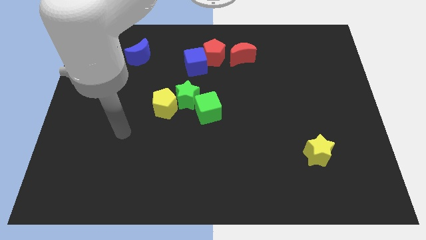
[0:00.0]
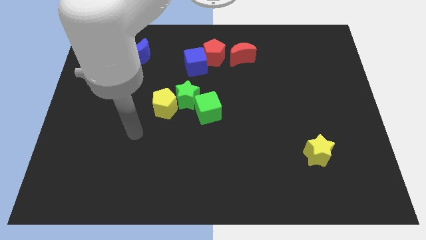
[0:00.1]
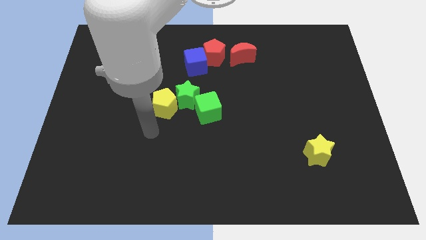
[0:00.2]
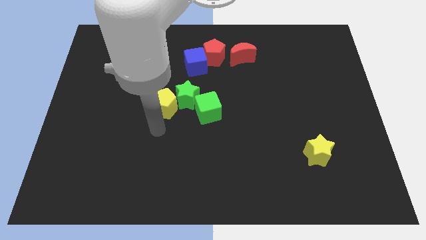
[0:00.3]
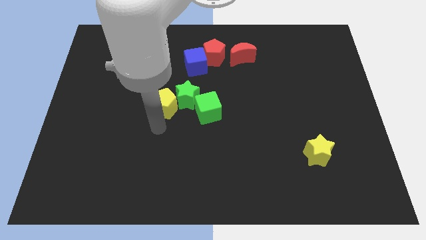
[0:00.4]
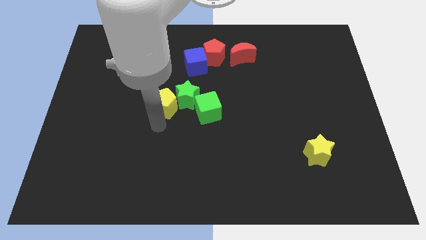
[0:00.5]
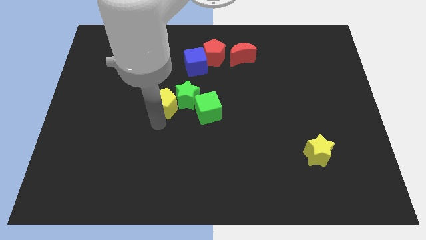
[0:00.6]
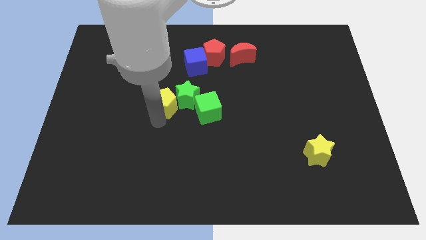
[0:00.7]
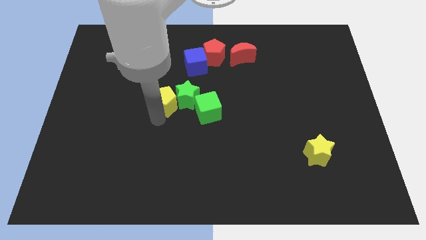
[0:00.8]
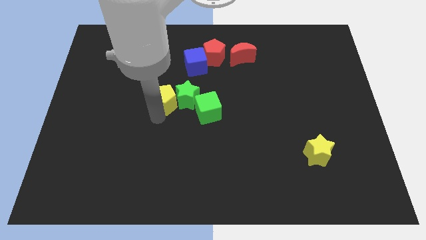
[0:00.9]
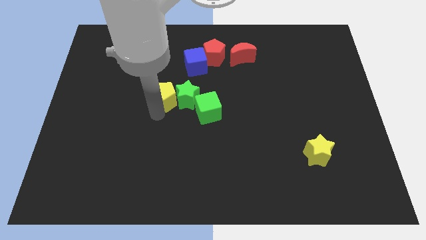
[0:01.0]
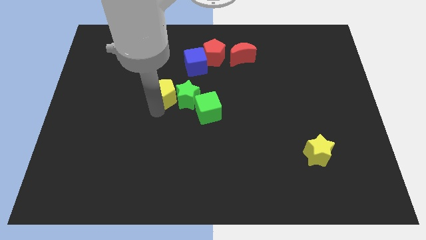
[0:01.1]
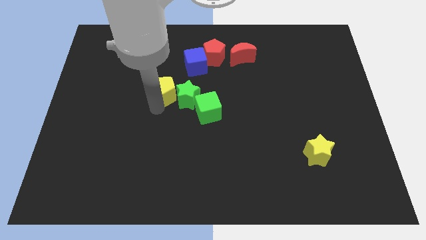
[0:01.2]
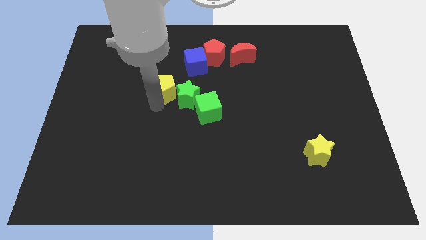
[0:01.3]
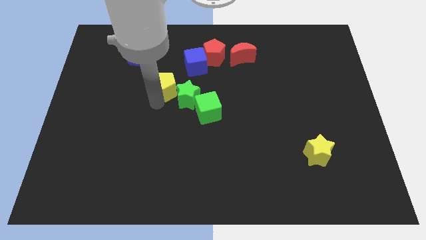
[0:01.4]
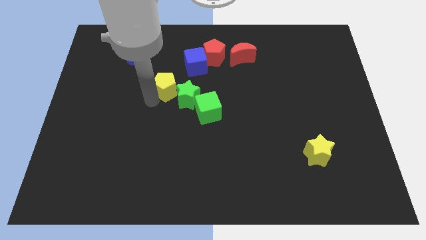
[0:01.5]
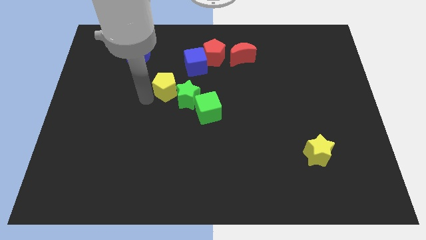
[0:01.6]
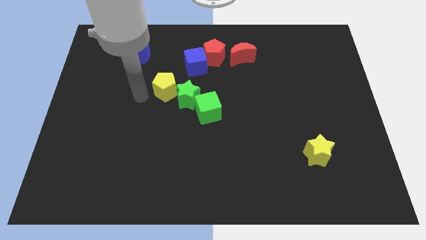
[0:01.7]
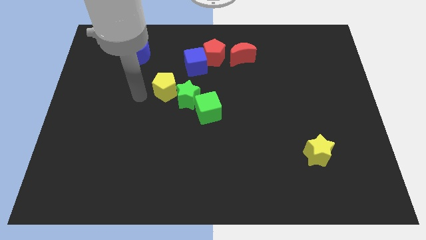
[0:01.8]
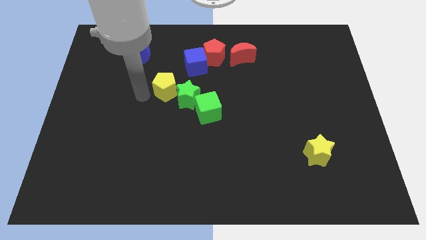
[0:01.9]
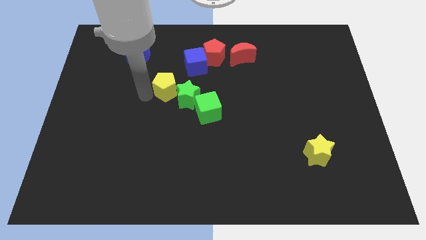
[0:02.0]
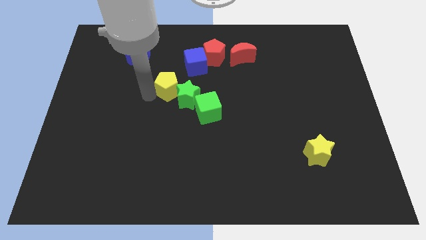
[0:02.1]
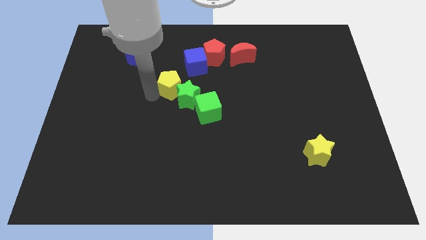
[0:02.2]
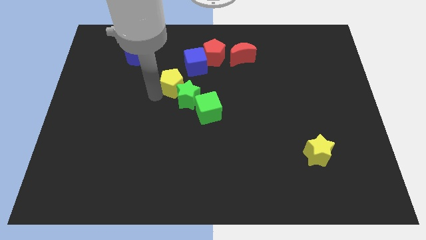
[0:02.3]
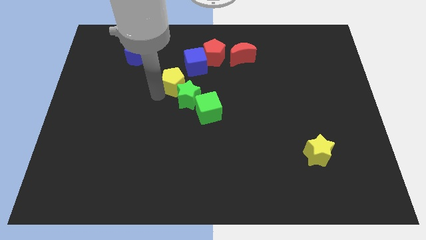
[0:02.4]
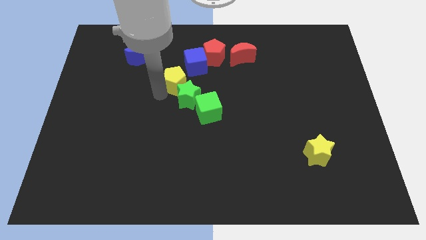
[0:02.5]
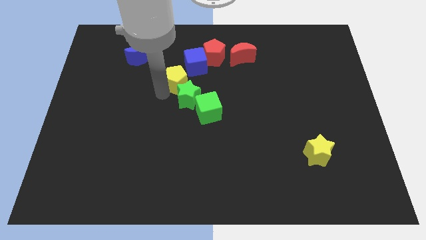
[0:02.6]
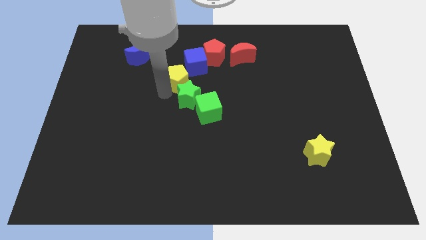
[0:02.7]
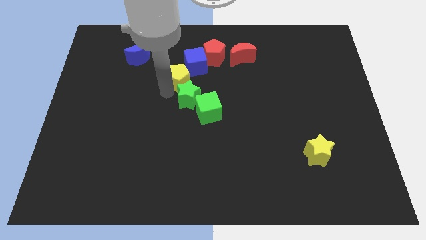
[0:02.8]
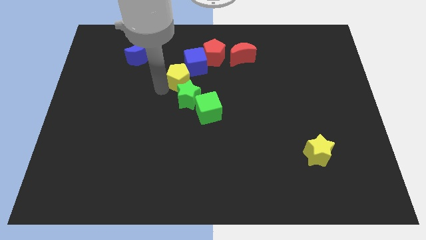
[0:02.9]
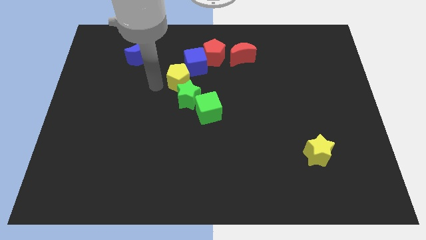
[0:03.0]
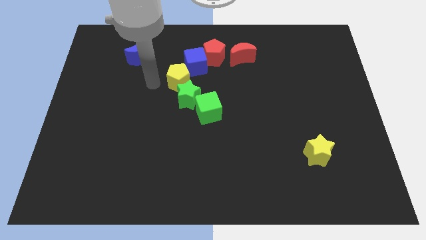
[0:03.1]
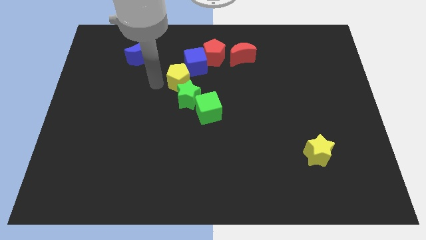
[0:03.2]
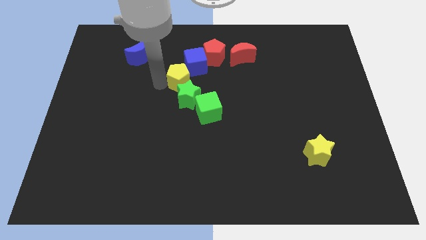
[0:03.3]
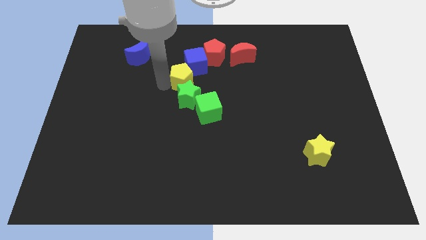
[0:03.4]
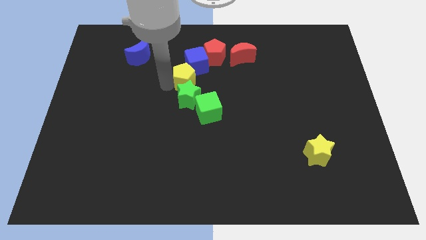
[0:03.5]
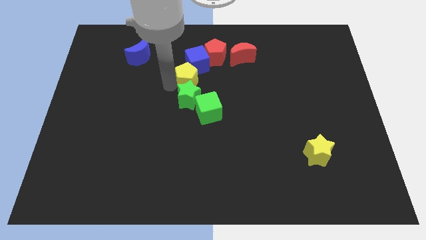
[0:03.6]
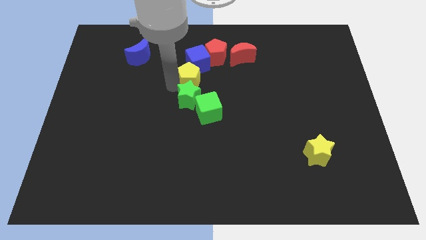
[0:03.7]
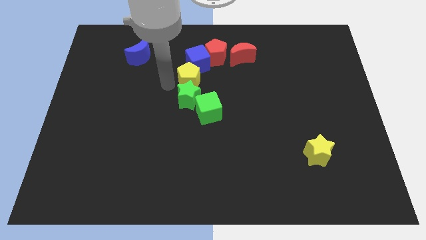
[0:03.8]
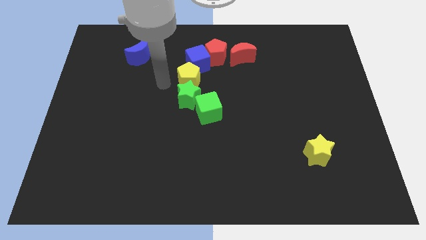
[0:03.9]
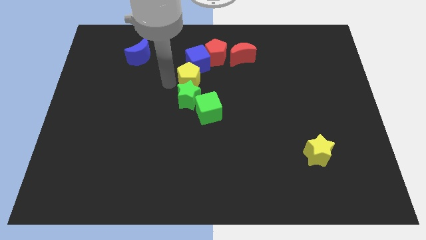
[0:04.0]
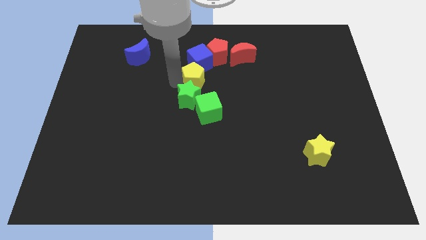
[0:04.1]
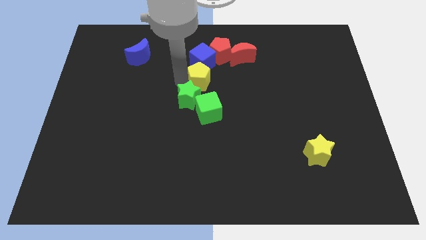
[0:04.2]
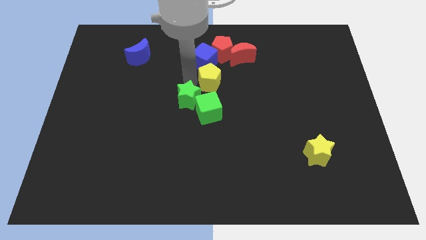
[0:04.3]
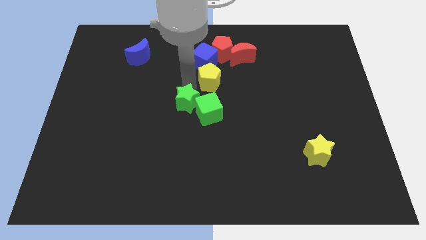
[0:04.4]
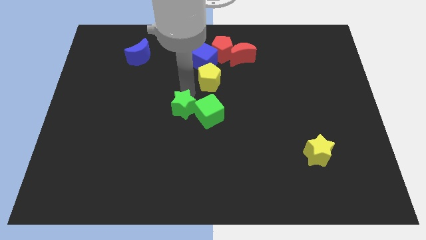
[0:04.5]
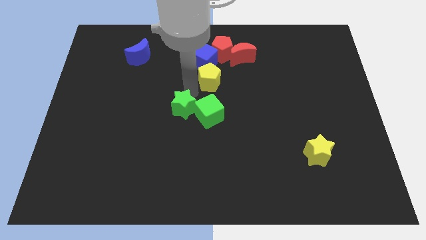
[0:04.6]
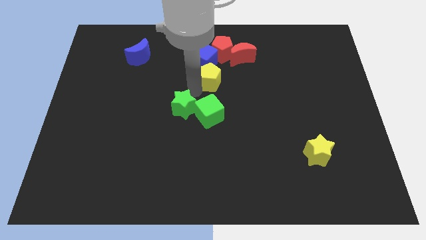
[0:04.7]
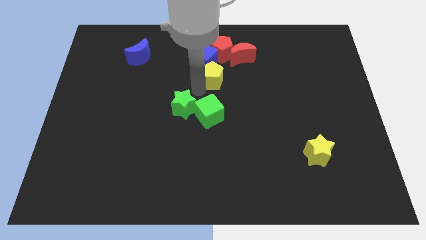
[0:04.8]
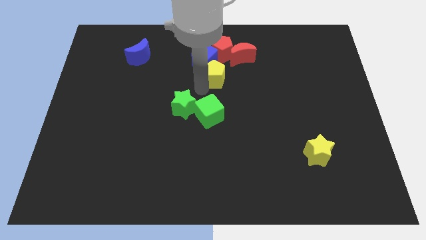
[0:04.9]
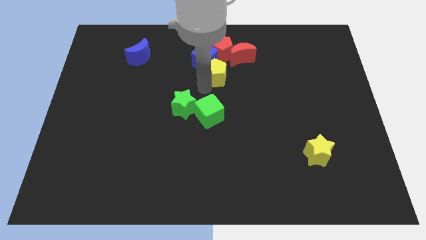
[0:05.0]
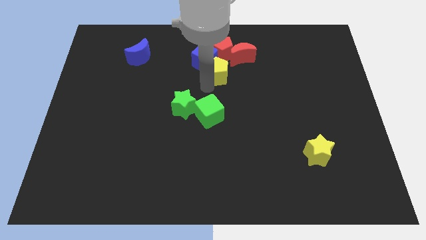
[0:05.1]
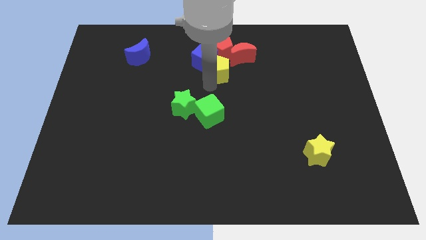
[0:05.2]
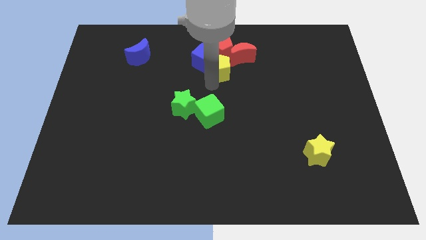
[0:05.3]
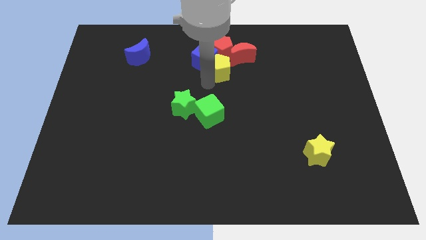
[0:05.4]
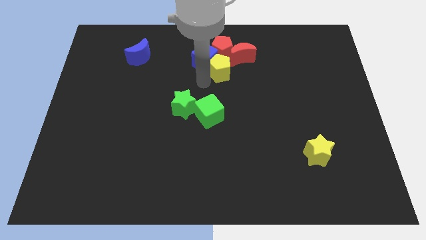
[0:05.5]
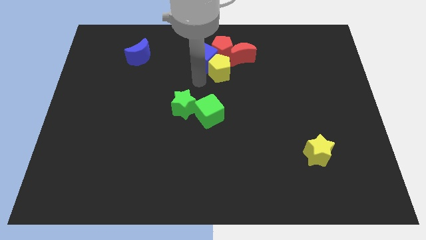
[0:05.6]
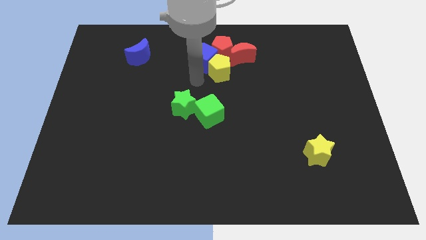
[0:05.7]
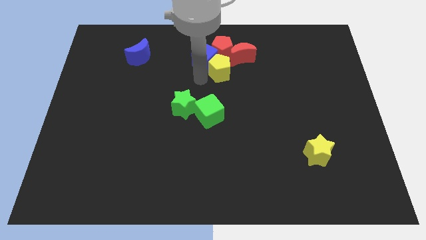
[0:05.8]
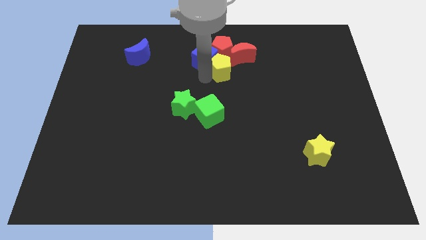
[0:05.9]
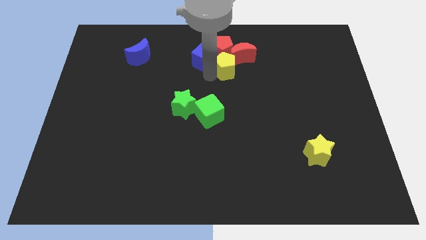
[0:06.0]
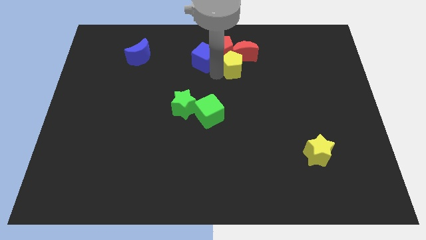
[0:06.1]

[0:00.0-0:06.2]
slide the yellow pentagon next to the red moon

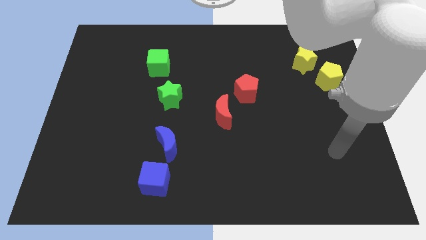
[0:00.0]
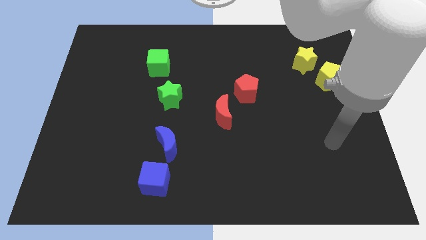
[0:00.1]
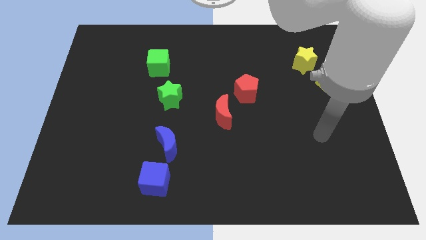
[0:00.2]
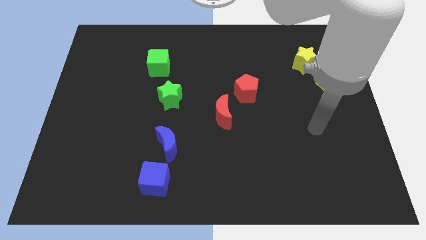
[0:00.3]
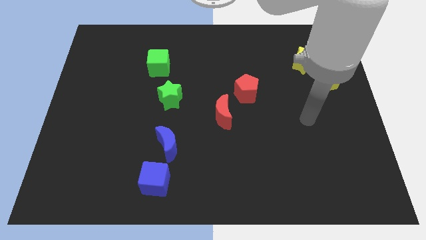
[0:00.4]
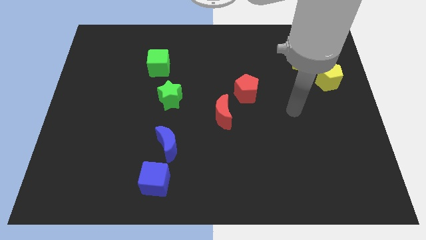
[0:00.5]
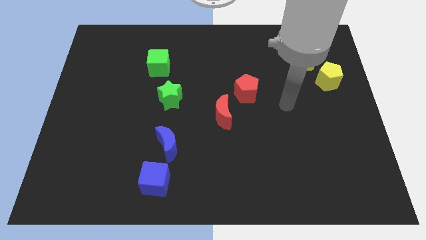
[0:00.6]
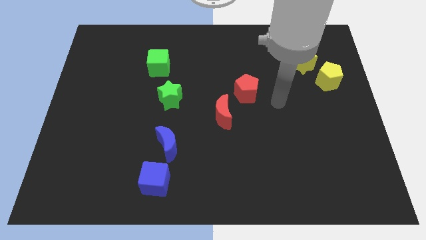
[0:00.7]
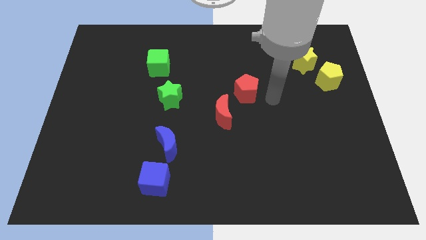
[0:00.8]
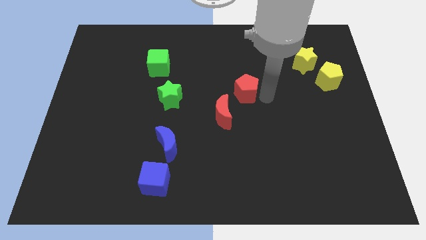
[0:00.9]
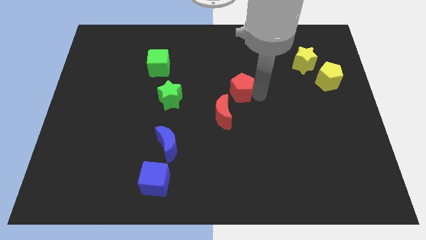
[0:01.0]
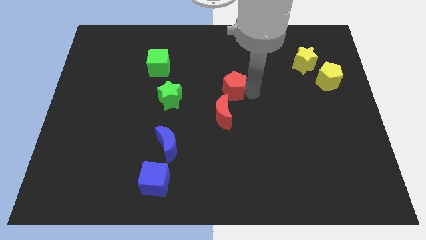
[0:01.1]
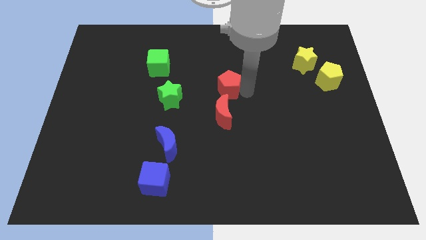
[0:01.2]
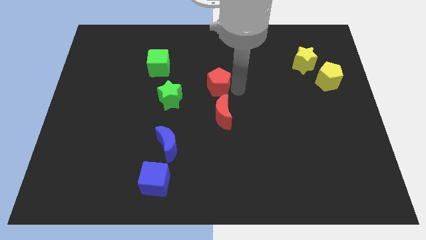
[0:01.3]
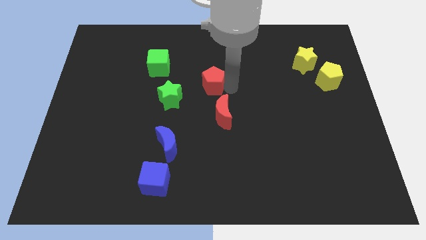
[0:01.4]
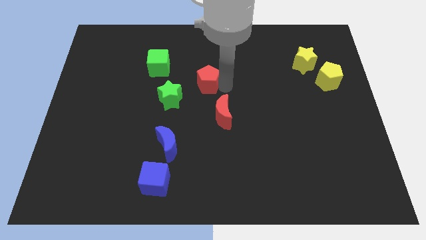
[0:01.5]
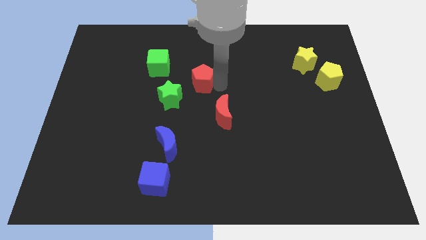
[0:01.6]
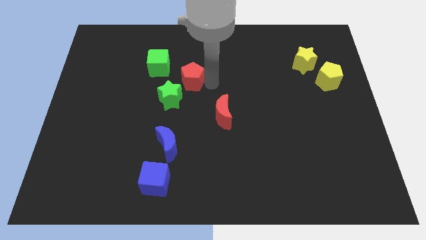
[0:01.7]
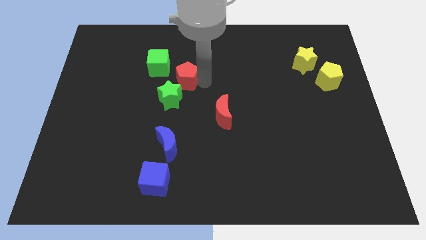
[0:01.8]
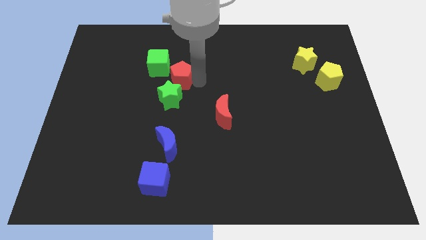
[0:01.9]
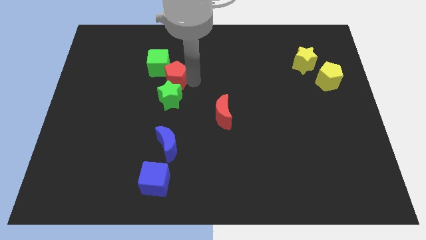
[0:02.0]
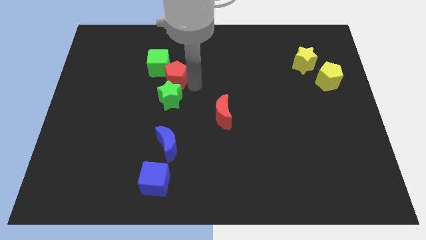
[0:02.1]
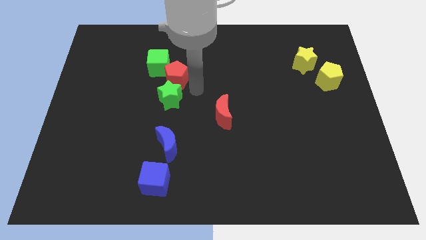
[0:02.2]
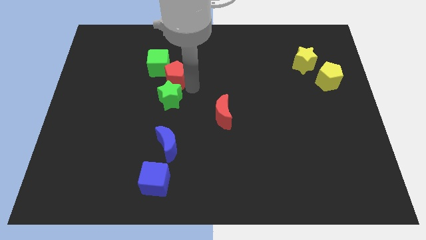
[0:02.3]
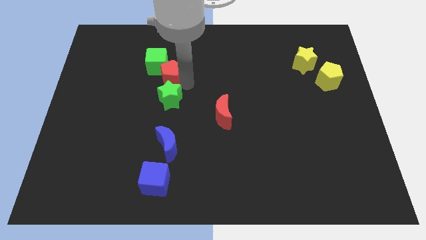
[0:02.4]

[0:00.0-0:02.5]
push the red pentagon towards the green cube
